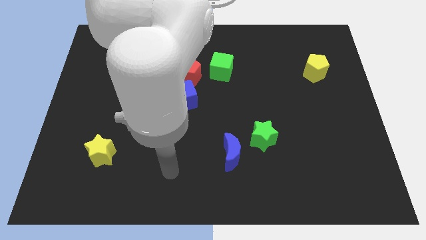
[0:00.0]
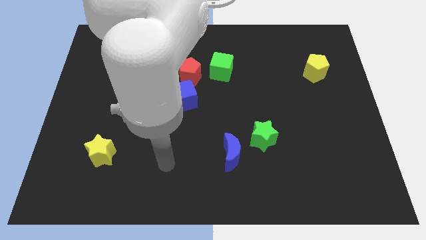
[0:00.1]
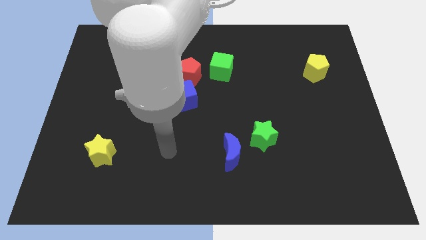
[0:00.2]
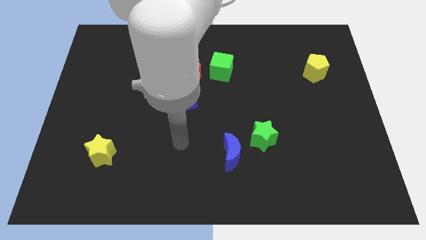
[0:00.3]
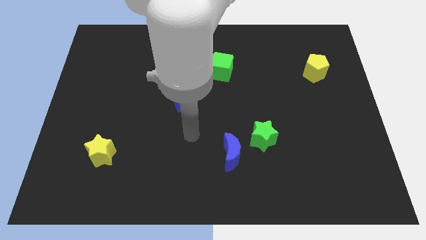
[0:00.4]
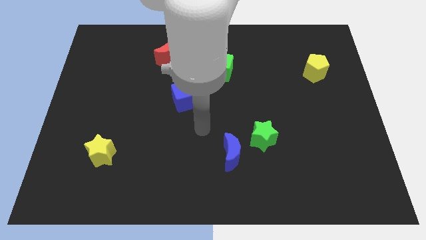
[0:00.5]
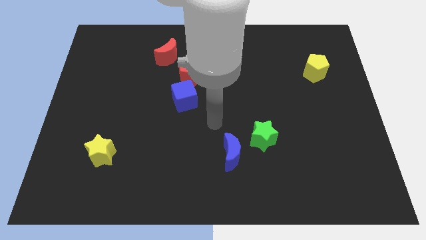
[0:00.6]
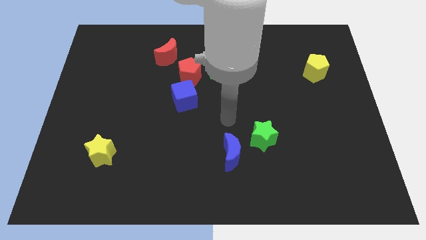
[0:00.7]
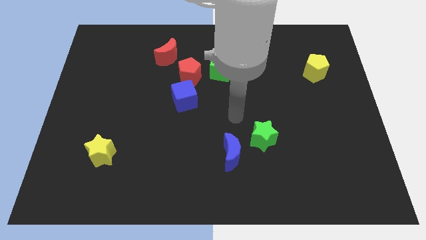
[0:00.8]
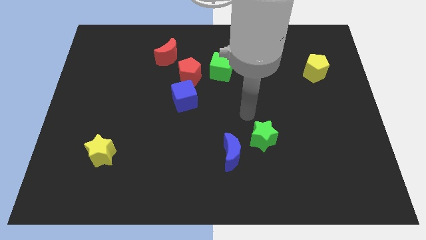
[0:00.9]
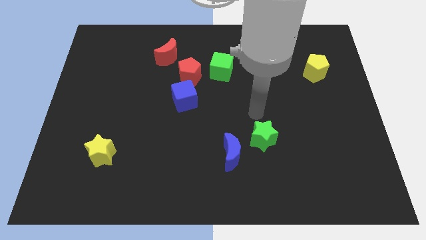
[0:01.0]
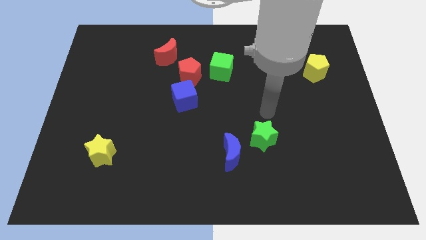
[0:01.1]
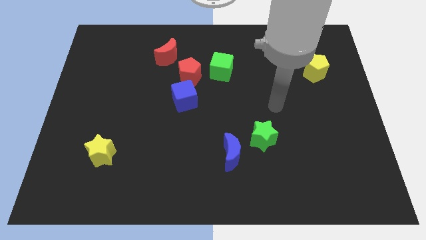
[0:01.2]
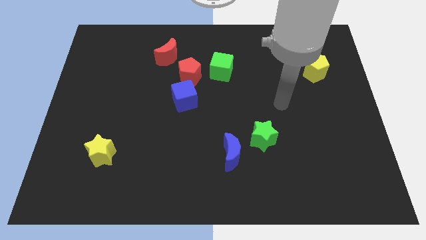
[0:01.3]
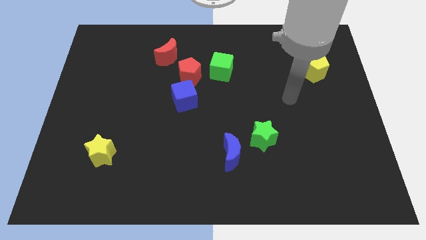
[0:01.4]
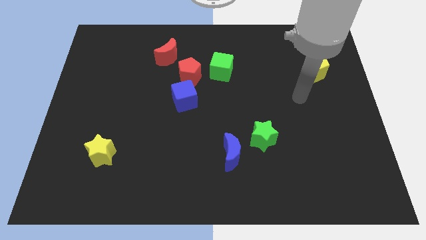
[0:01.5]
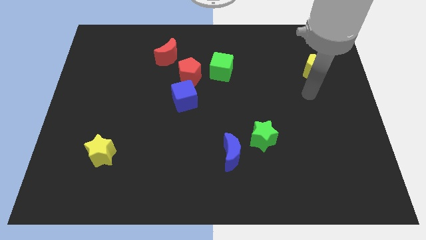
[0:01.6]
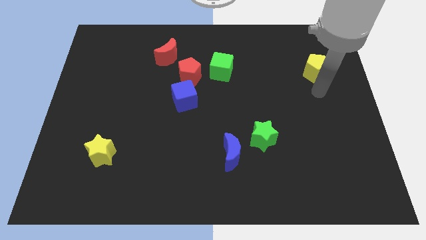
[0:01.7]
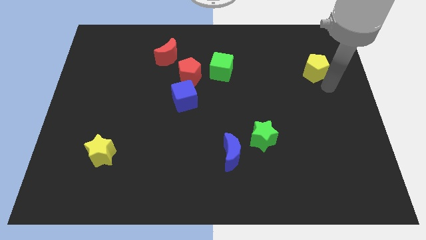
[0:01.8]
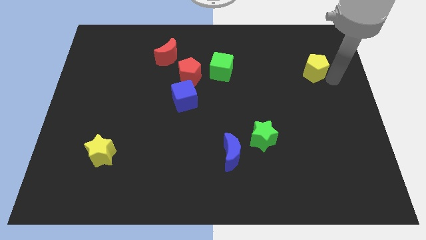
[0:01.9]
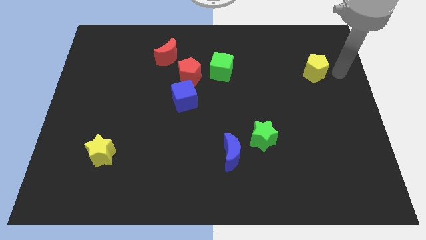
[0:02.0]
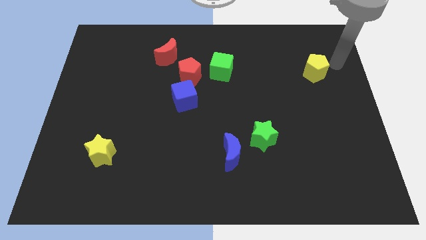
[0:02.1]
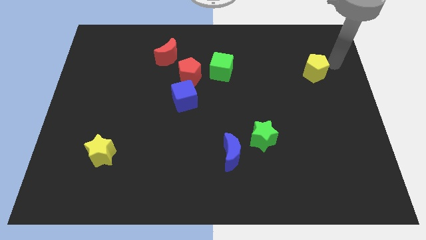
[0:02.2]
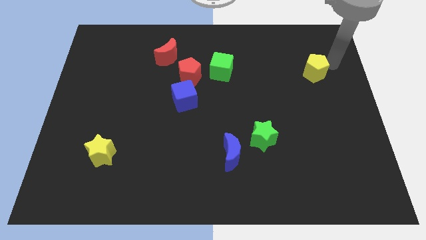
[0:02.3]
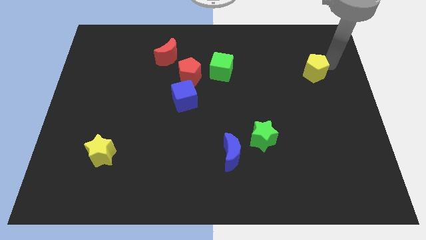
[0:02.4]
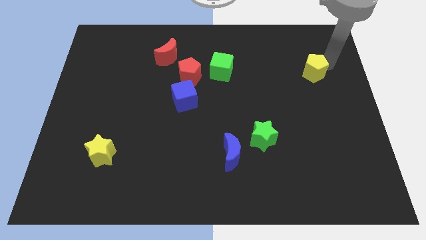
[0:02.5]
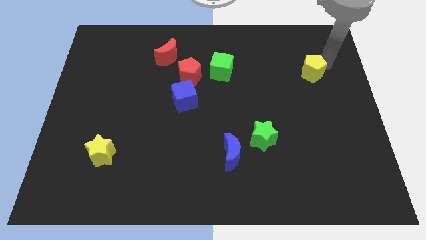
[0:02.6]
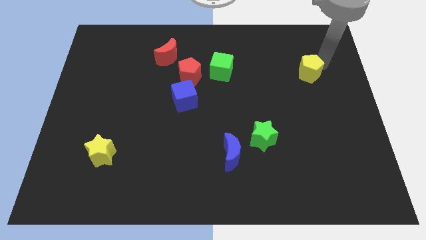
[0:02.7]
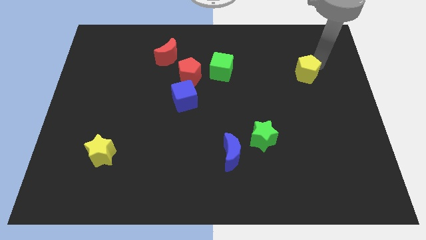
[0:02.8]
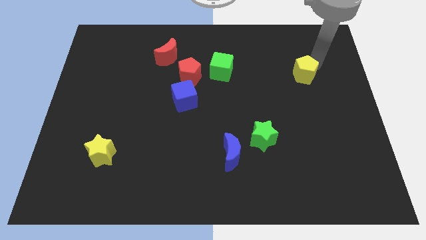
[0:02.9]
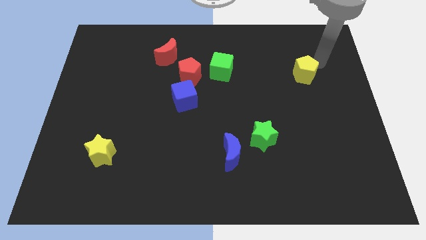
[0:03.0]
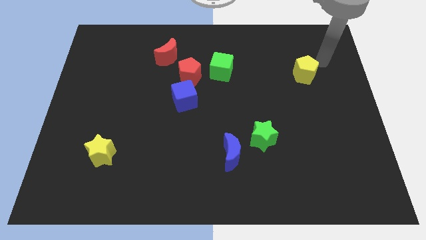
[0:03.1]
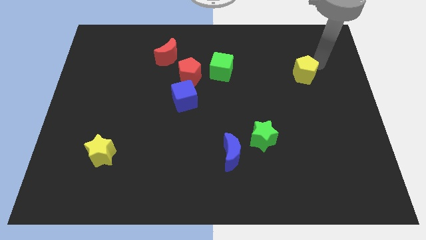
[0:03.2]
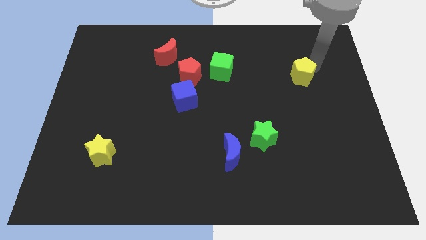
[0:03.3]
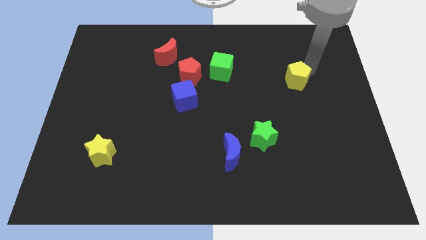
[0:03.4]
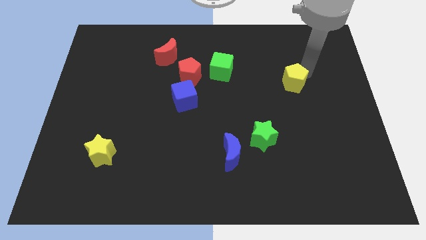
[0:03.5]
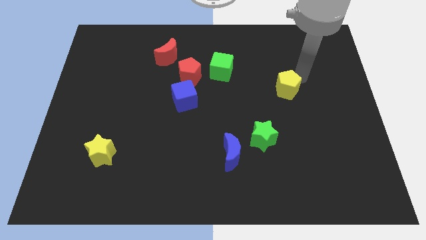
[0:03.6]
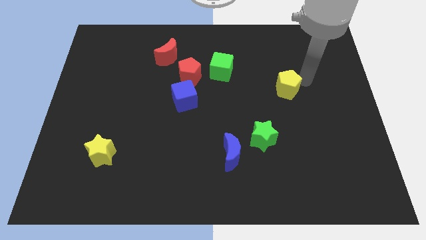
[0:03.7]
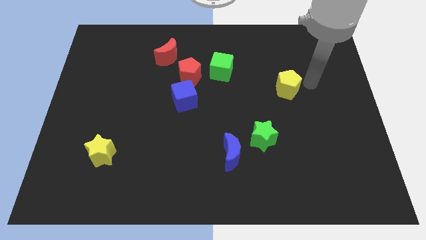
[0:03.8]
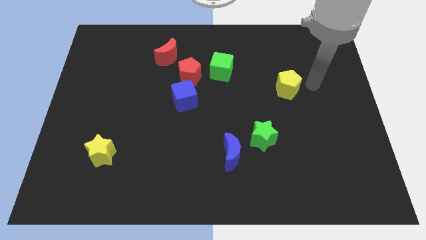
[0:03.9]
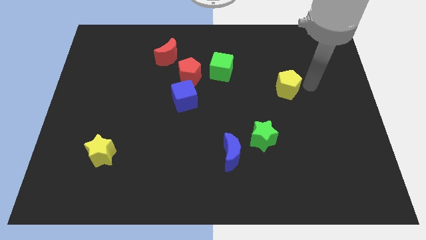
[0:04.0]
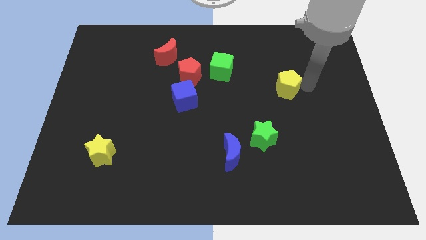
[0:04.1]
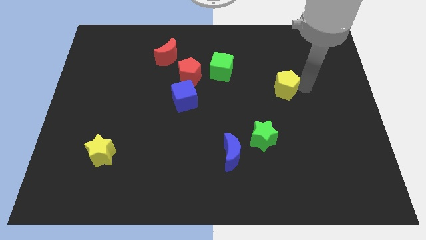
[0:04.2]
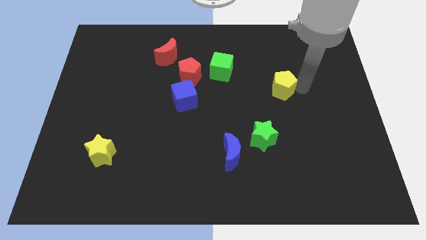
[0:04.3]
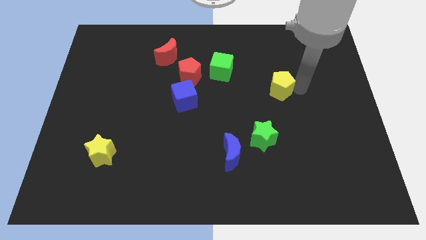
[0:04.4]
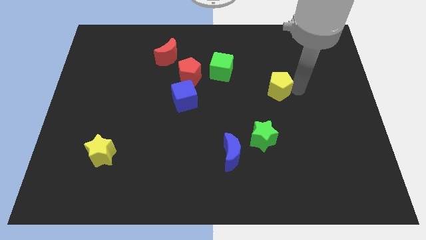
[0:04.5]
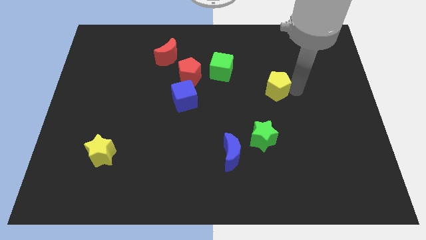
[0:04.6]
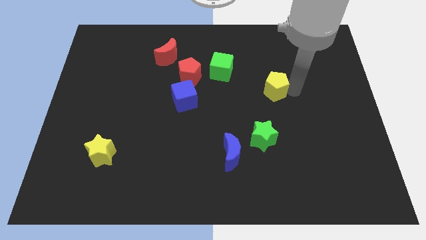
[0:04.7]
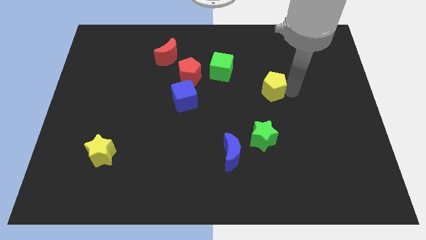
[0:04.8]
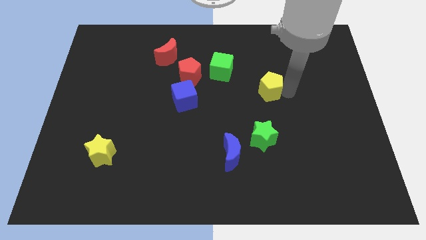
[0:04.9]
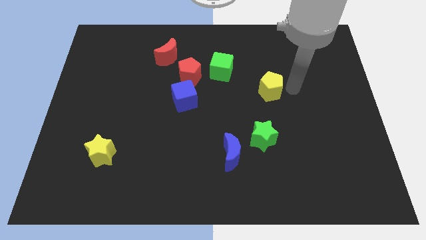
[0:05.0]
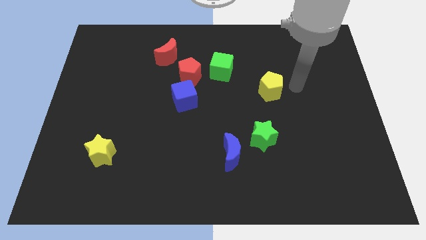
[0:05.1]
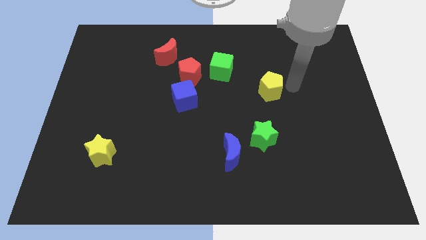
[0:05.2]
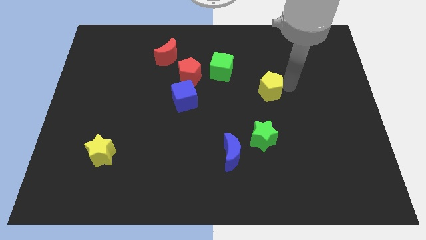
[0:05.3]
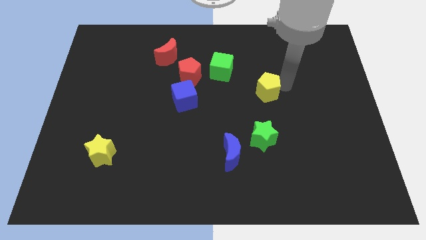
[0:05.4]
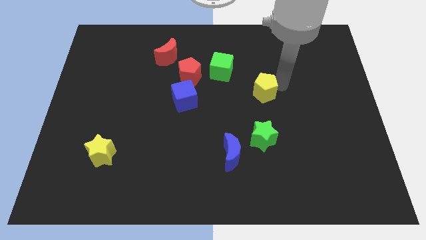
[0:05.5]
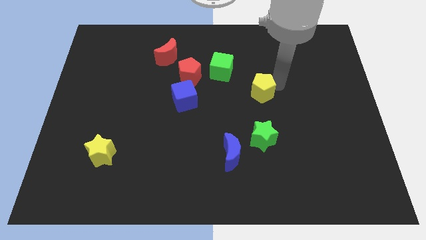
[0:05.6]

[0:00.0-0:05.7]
move the yellow pentagon to the center

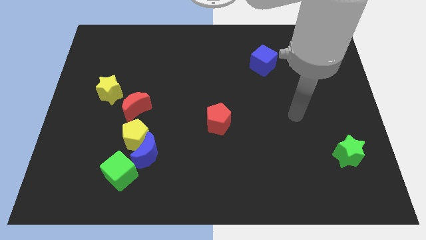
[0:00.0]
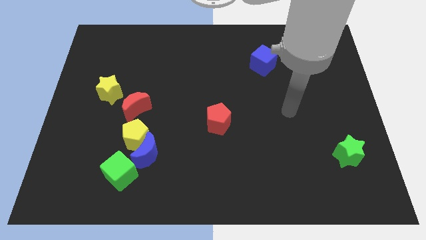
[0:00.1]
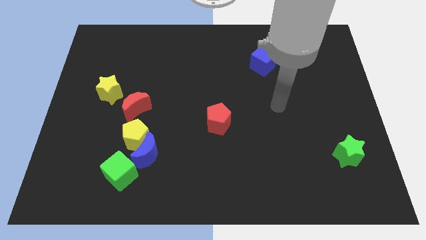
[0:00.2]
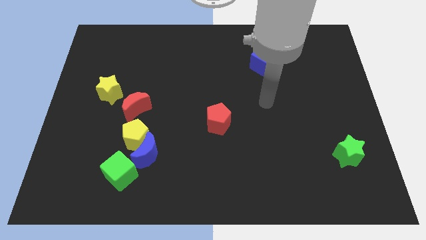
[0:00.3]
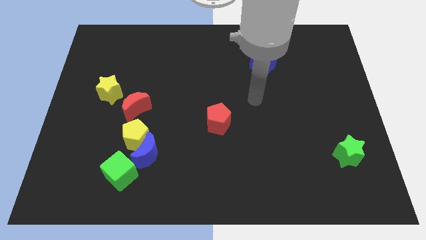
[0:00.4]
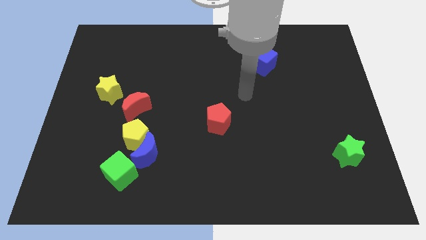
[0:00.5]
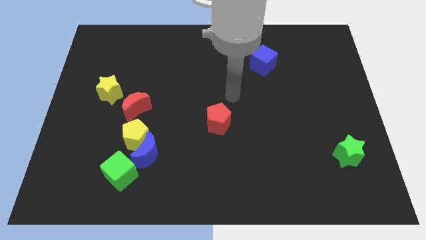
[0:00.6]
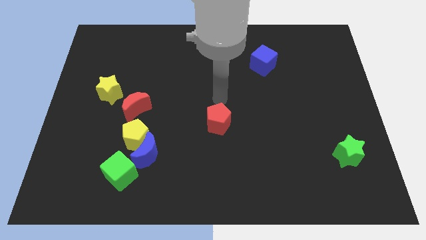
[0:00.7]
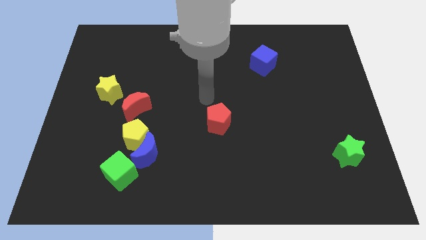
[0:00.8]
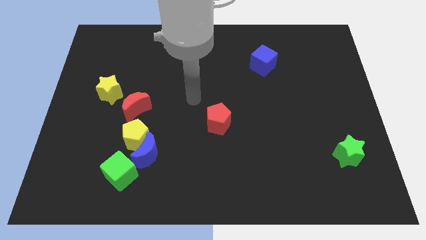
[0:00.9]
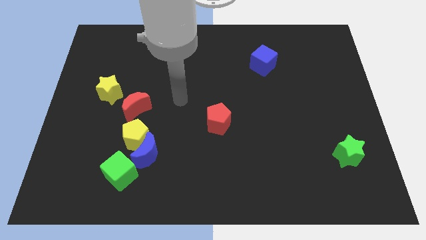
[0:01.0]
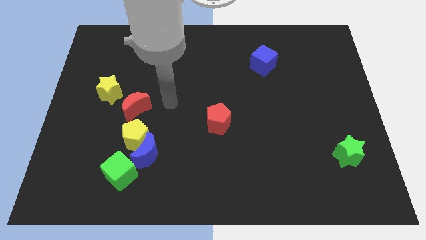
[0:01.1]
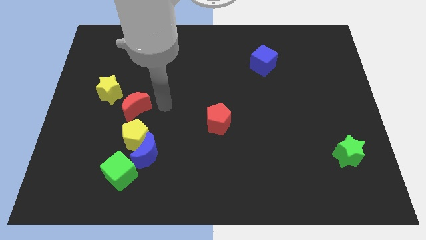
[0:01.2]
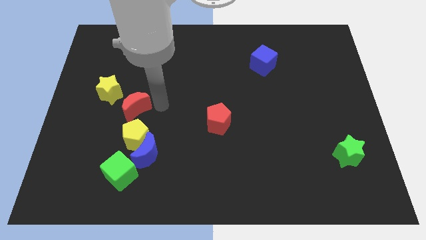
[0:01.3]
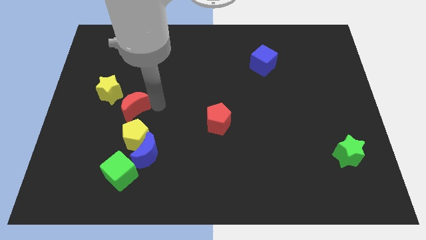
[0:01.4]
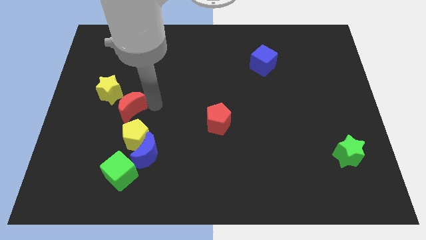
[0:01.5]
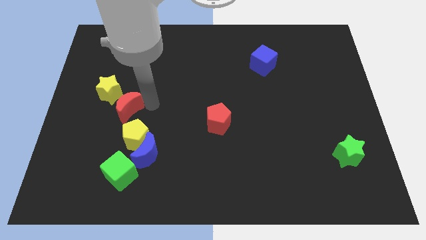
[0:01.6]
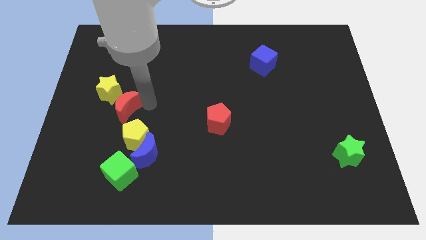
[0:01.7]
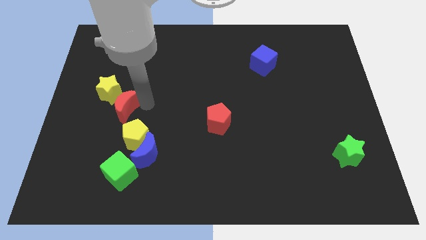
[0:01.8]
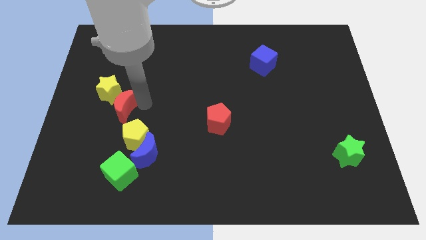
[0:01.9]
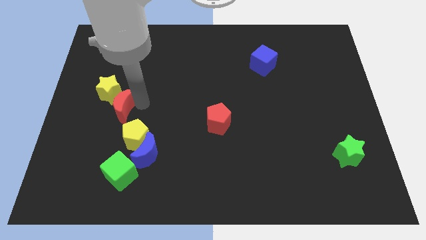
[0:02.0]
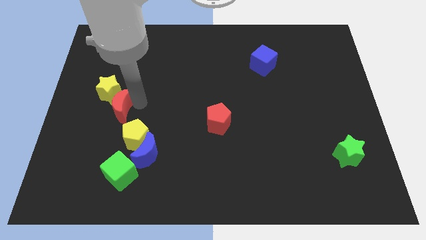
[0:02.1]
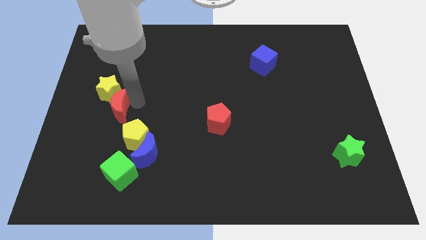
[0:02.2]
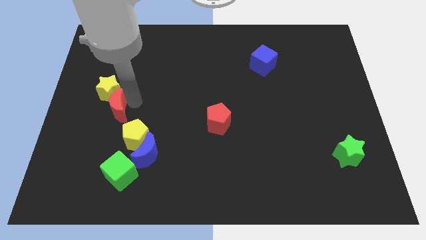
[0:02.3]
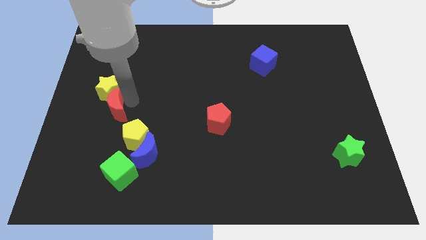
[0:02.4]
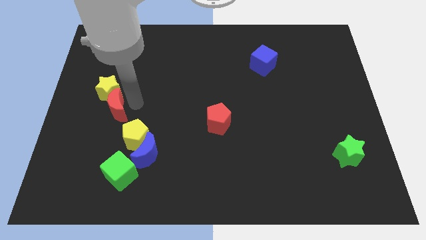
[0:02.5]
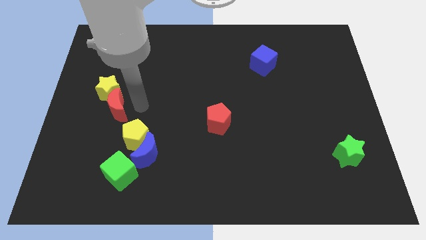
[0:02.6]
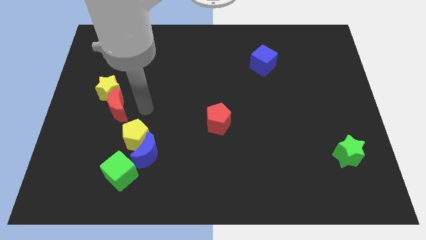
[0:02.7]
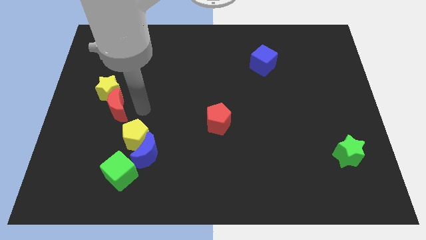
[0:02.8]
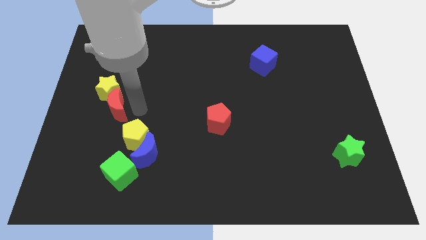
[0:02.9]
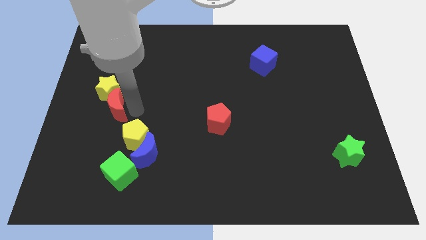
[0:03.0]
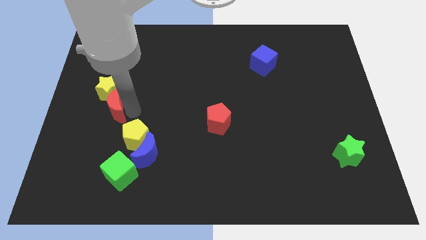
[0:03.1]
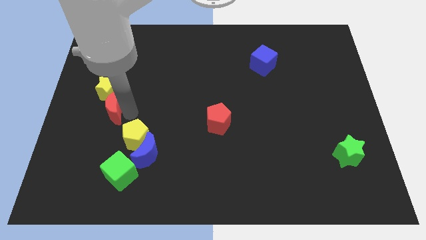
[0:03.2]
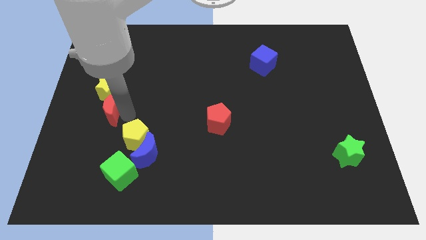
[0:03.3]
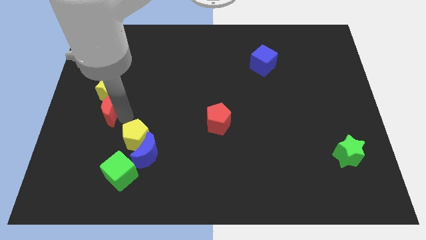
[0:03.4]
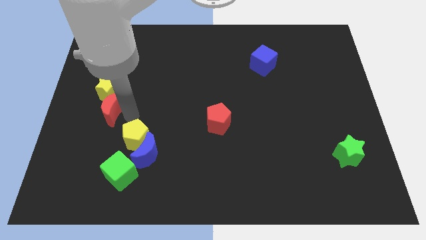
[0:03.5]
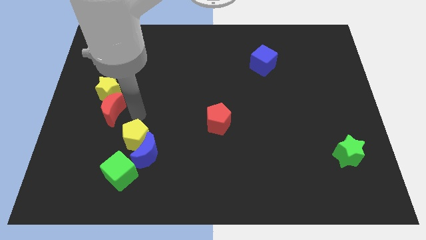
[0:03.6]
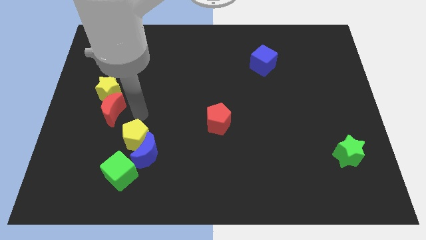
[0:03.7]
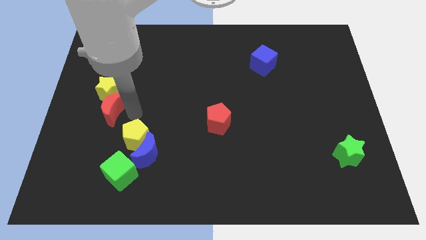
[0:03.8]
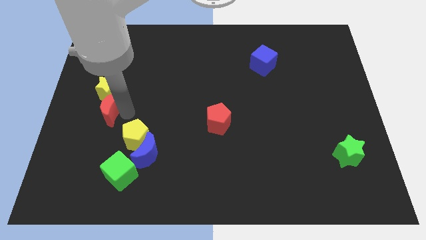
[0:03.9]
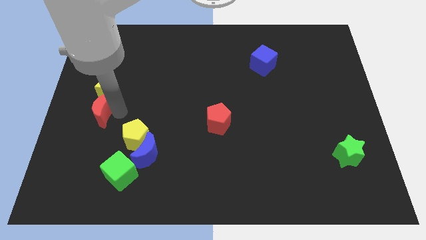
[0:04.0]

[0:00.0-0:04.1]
push the red moon to the center left
